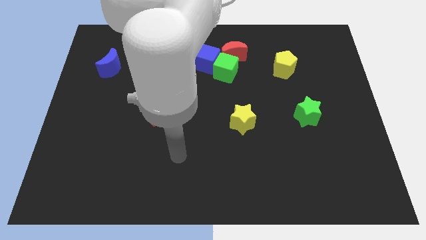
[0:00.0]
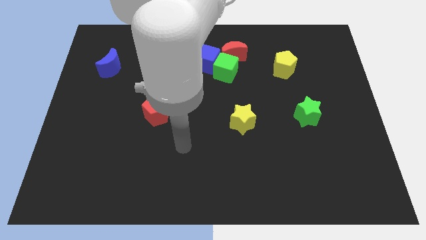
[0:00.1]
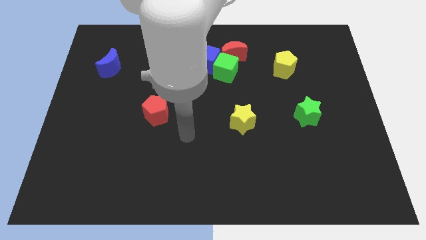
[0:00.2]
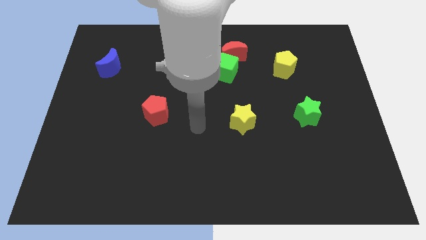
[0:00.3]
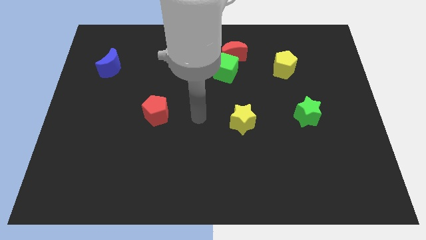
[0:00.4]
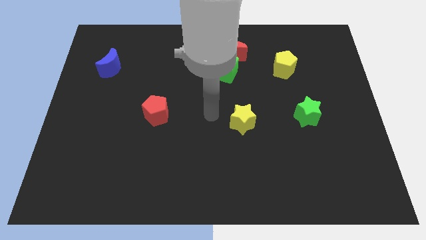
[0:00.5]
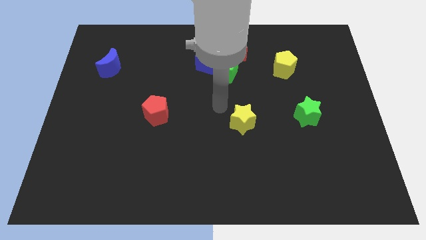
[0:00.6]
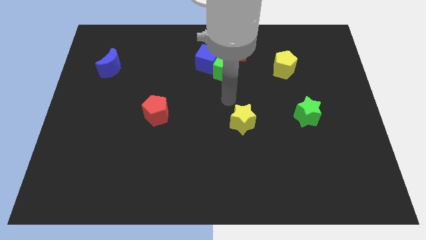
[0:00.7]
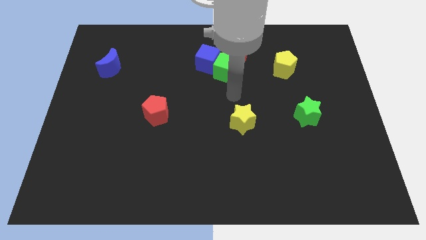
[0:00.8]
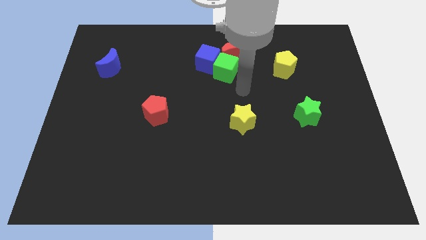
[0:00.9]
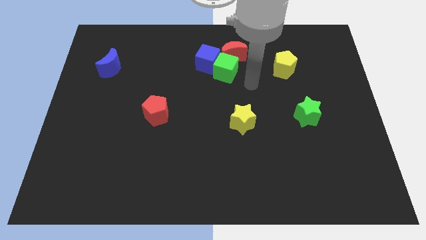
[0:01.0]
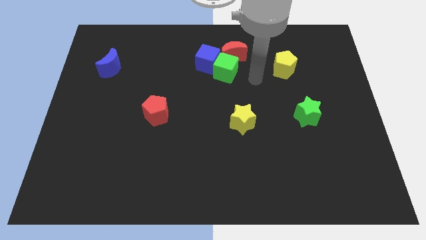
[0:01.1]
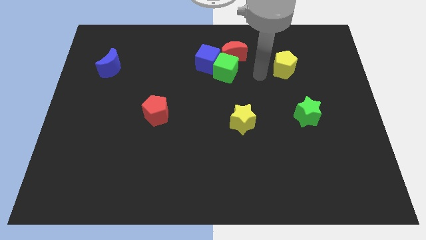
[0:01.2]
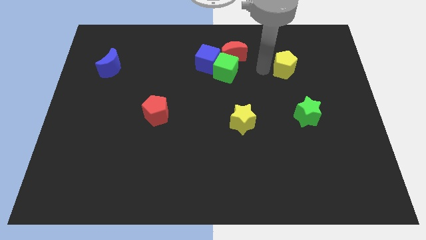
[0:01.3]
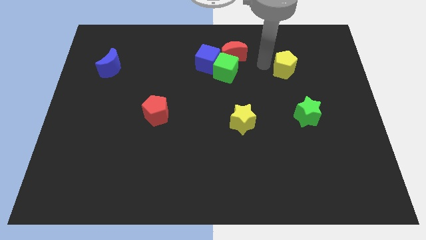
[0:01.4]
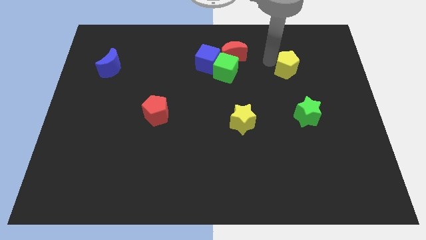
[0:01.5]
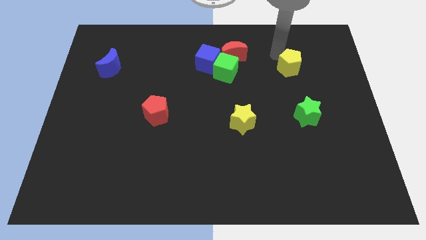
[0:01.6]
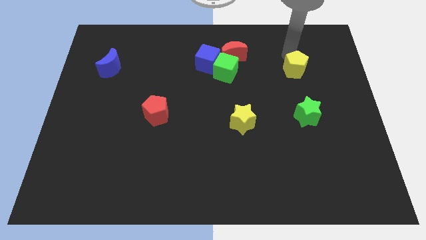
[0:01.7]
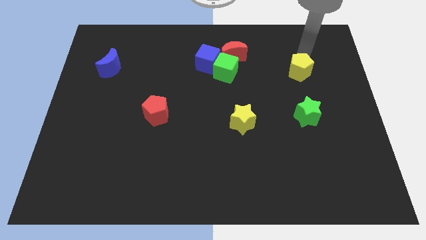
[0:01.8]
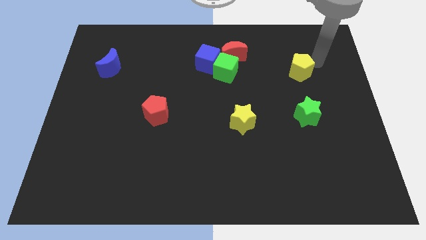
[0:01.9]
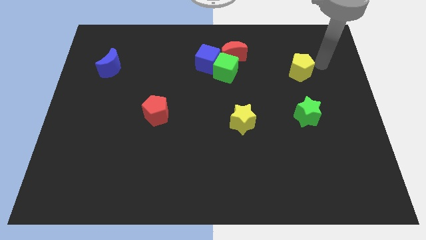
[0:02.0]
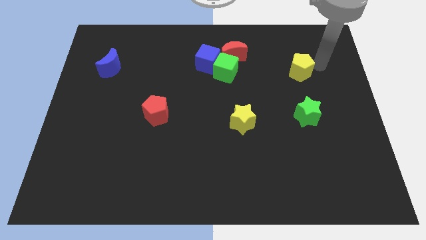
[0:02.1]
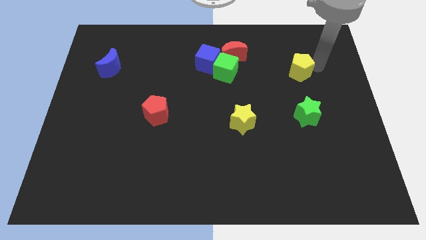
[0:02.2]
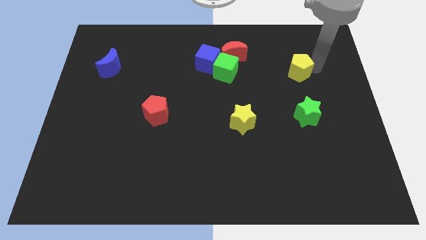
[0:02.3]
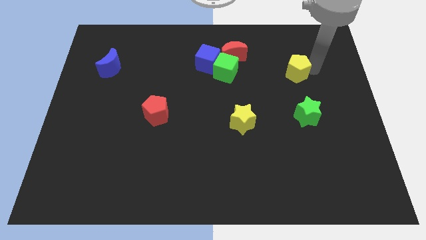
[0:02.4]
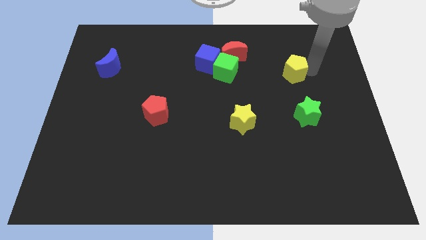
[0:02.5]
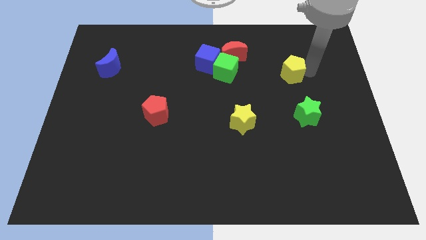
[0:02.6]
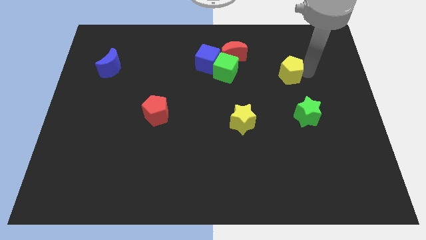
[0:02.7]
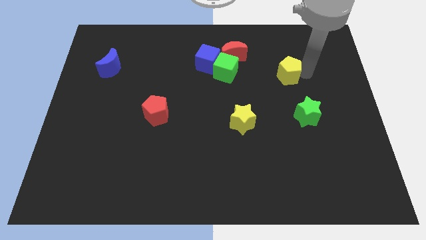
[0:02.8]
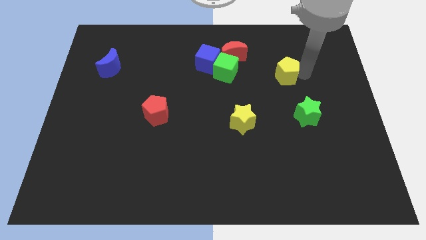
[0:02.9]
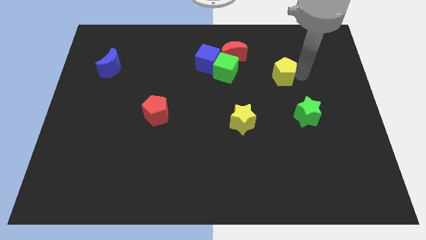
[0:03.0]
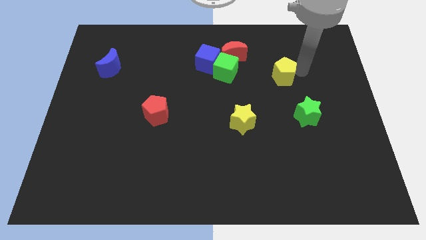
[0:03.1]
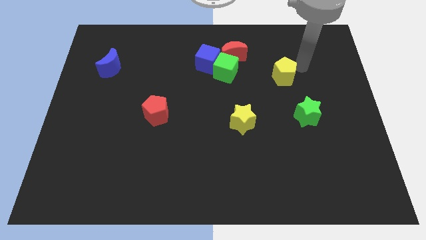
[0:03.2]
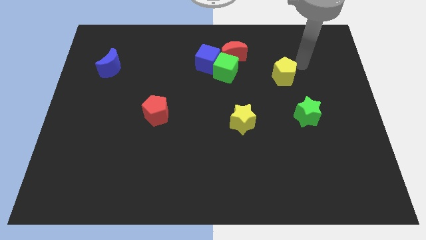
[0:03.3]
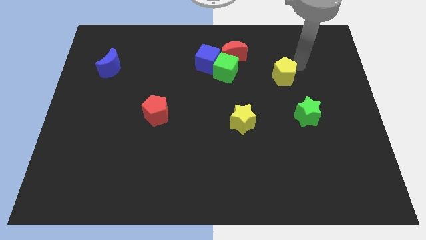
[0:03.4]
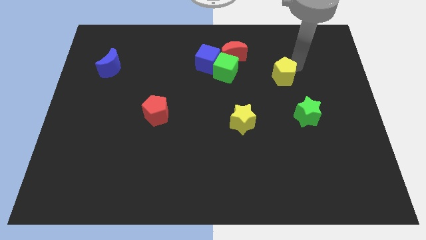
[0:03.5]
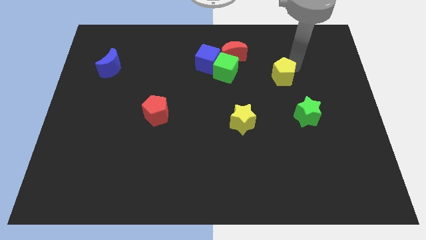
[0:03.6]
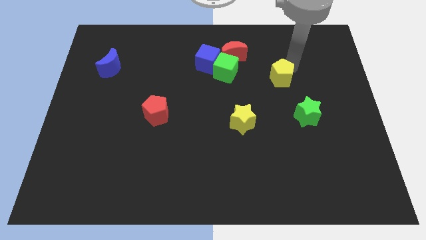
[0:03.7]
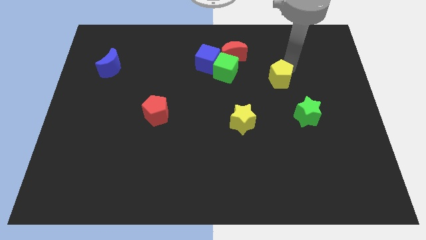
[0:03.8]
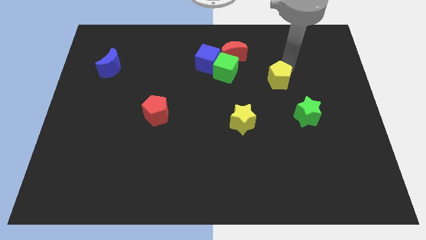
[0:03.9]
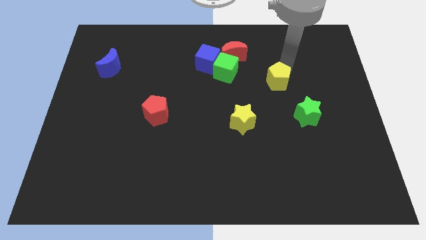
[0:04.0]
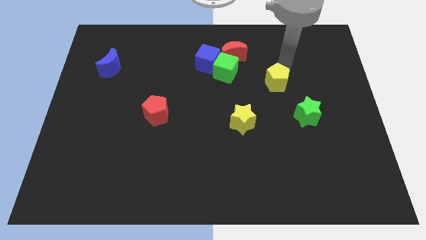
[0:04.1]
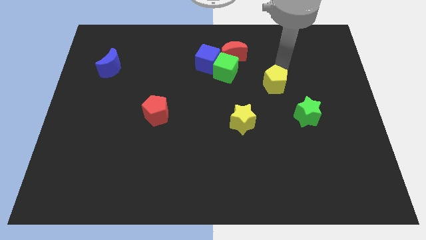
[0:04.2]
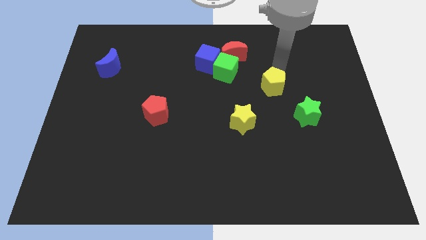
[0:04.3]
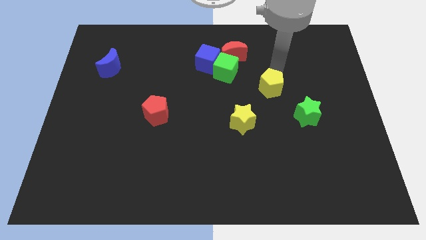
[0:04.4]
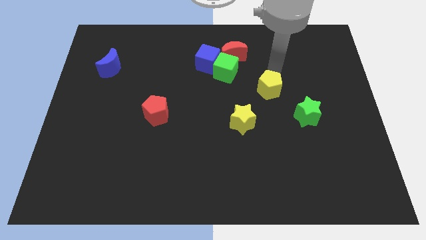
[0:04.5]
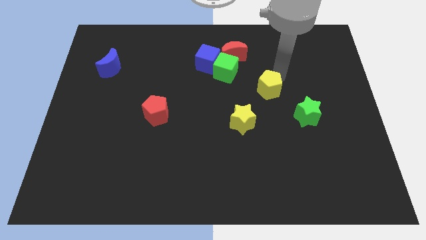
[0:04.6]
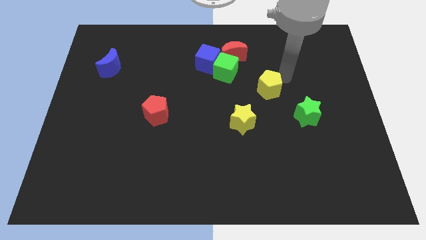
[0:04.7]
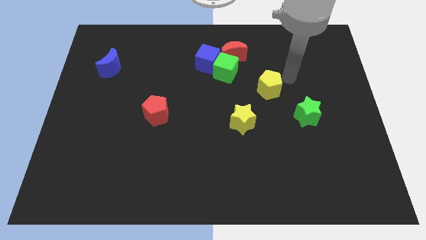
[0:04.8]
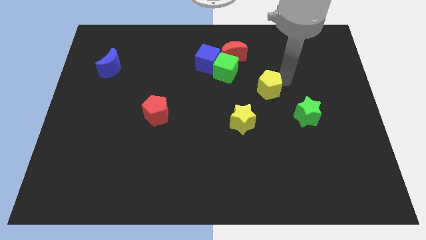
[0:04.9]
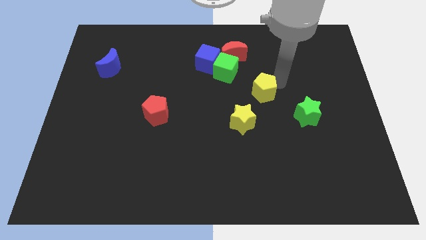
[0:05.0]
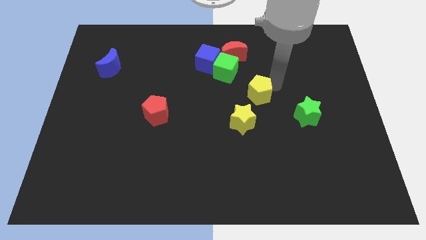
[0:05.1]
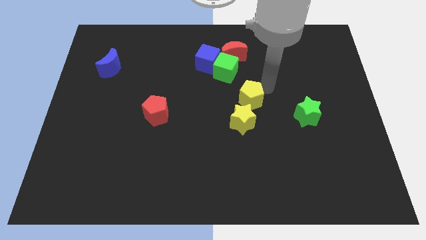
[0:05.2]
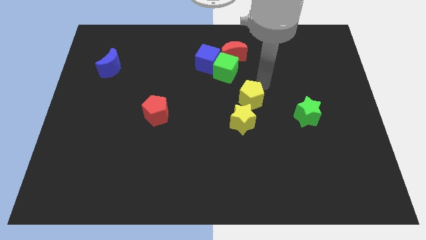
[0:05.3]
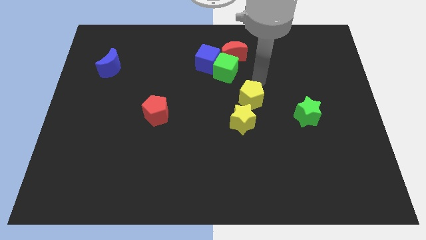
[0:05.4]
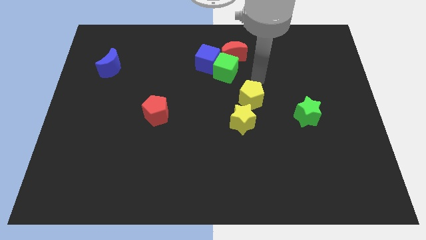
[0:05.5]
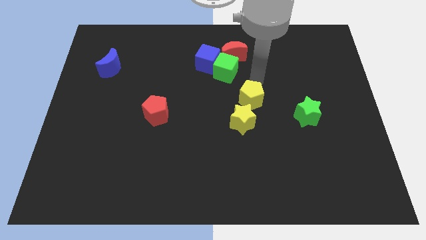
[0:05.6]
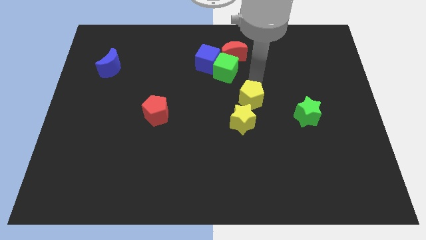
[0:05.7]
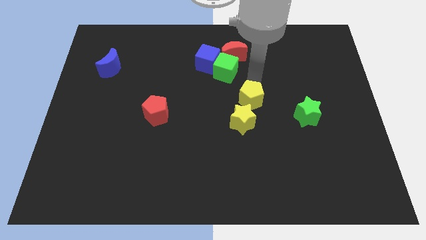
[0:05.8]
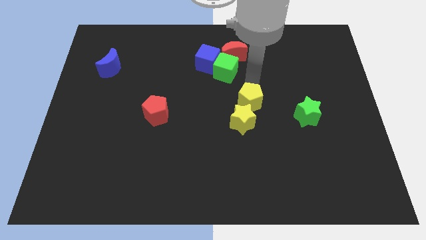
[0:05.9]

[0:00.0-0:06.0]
push the yellow pentagon close to the yellow star

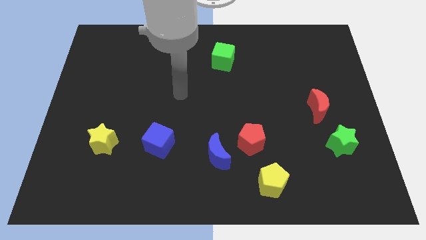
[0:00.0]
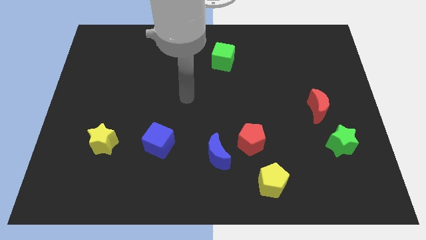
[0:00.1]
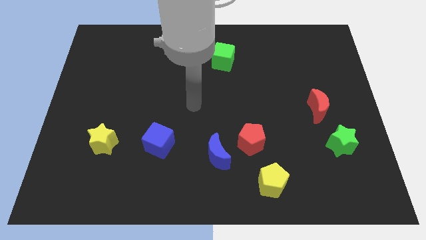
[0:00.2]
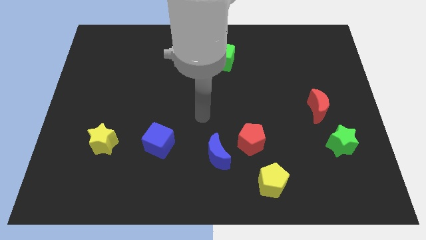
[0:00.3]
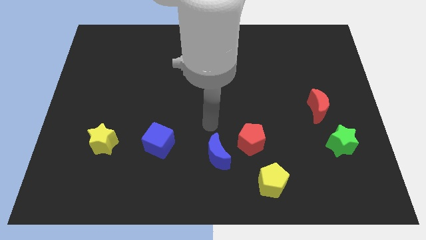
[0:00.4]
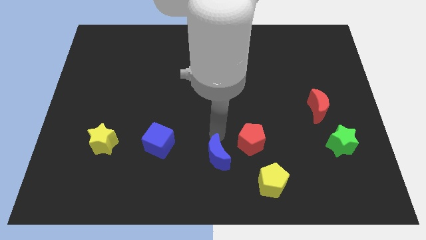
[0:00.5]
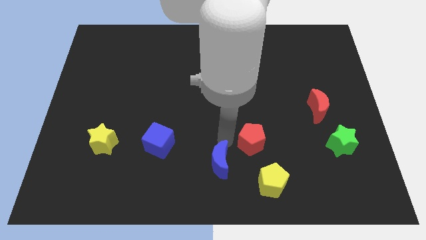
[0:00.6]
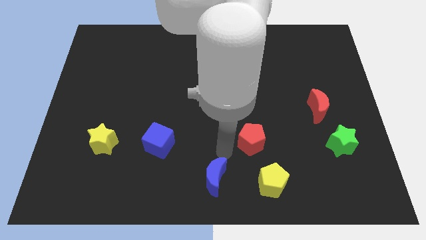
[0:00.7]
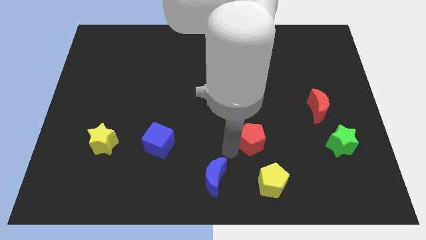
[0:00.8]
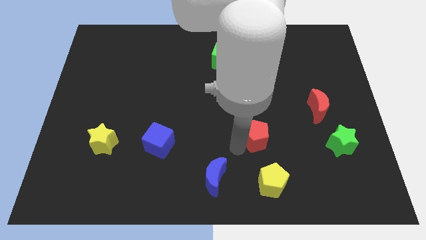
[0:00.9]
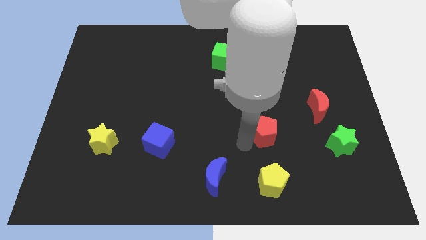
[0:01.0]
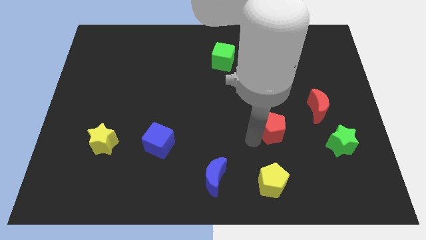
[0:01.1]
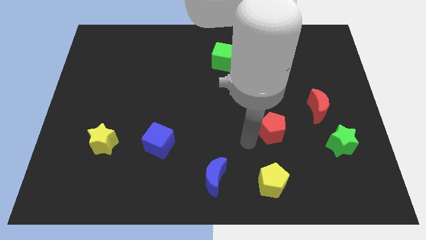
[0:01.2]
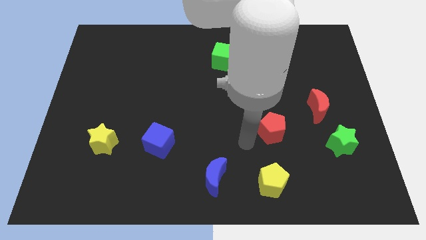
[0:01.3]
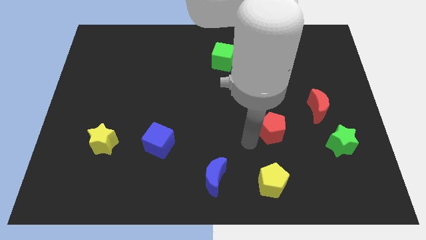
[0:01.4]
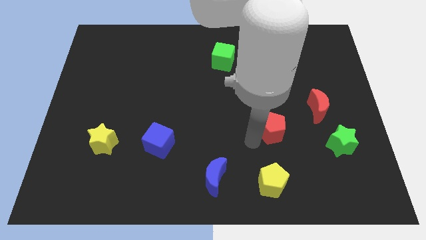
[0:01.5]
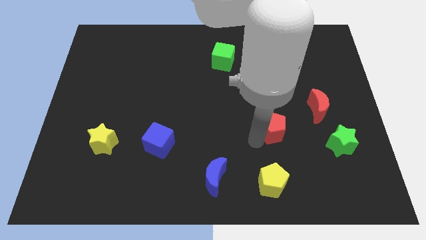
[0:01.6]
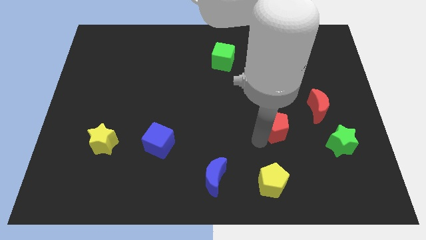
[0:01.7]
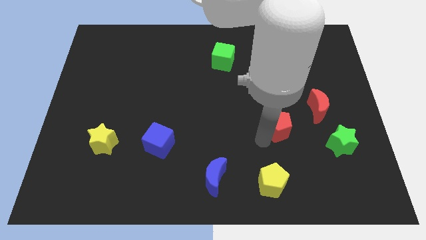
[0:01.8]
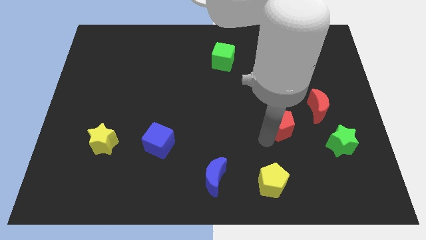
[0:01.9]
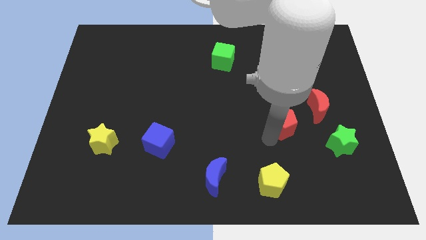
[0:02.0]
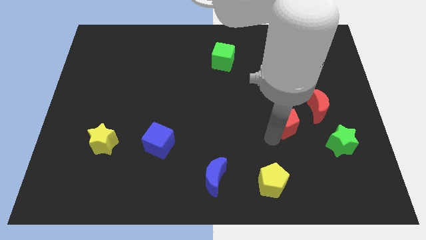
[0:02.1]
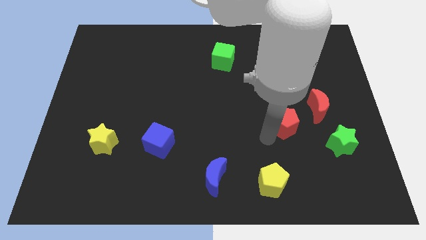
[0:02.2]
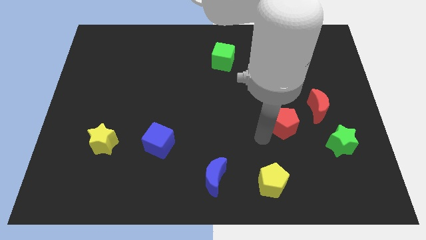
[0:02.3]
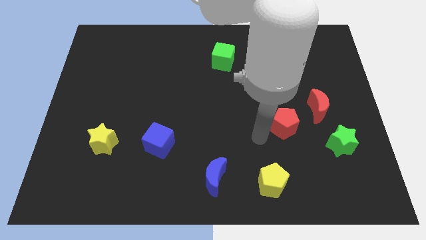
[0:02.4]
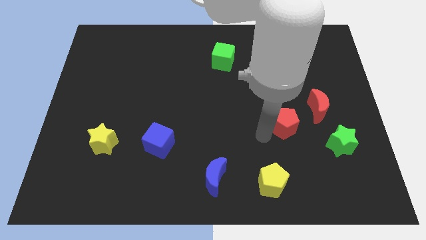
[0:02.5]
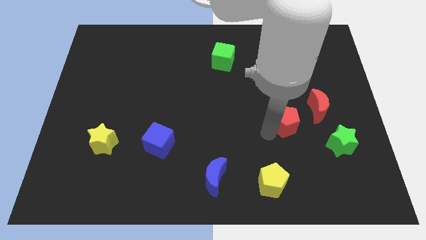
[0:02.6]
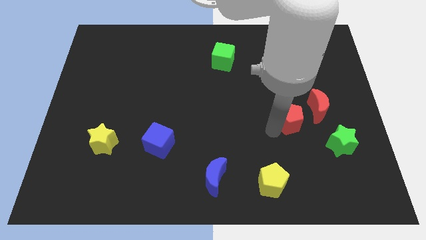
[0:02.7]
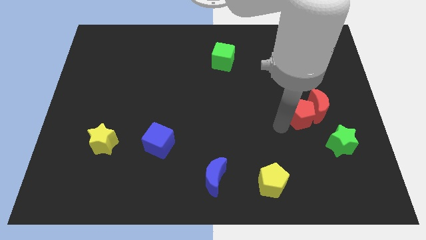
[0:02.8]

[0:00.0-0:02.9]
move the red pentagon towards the red moon
